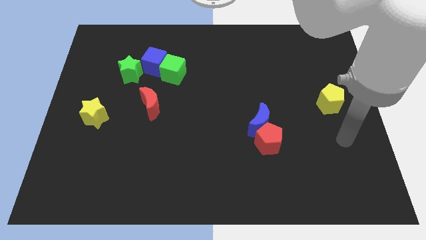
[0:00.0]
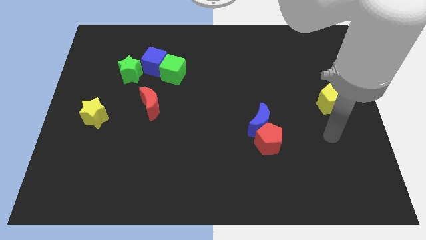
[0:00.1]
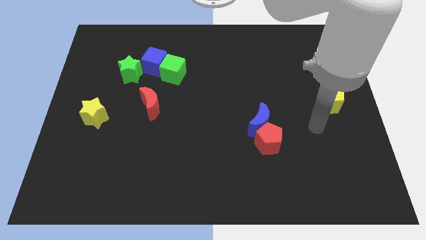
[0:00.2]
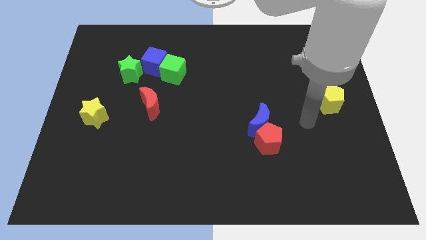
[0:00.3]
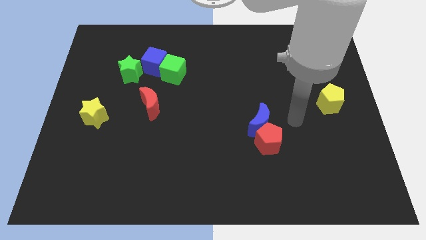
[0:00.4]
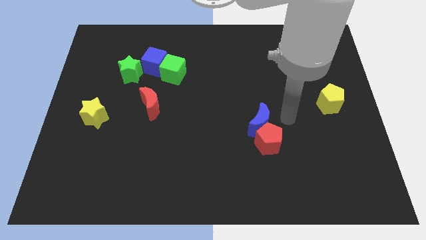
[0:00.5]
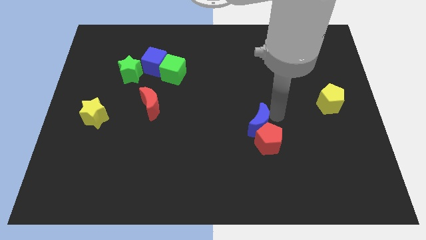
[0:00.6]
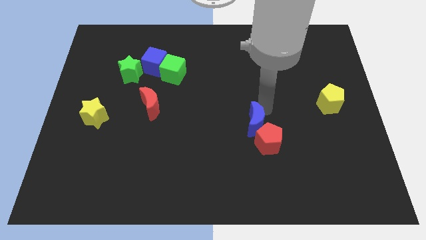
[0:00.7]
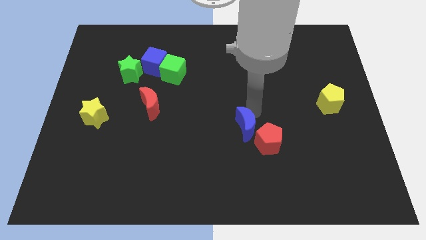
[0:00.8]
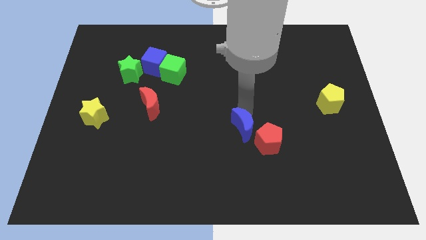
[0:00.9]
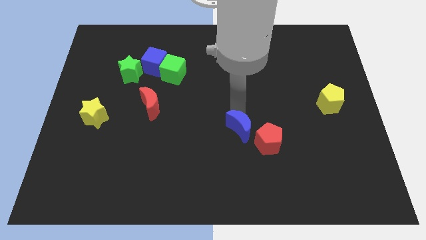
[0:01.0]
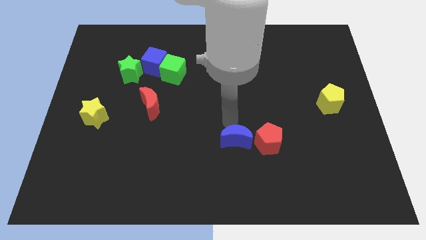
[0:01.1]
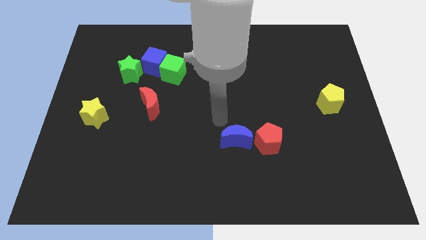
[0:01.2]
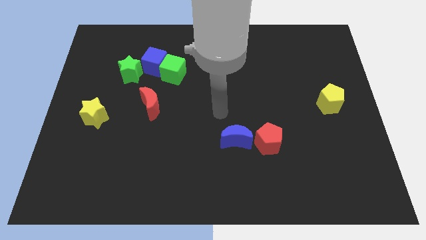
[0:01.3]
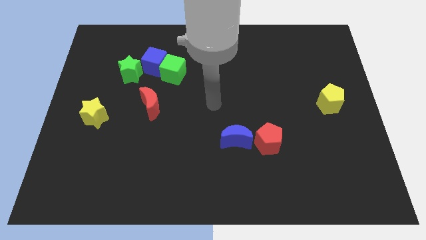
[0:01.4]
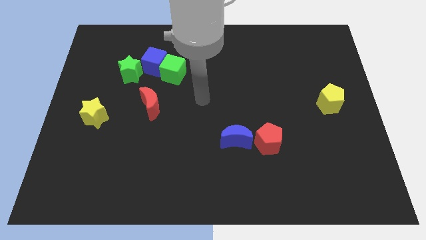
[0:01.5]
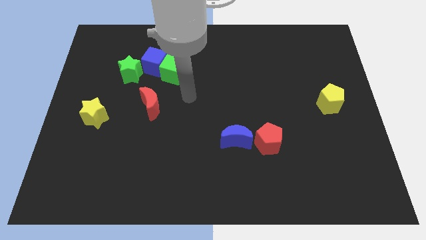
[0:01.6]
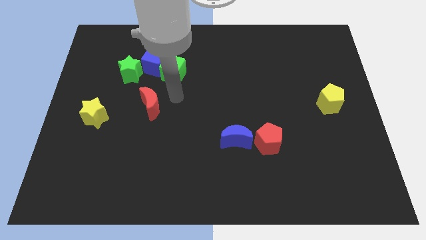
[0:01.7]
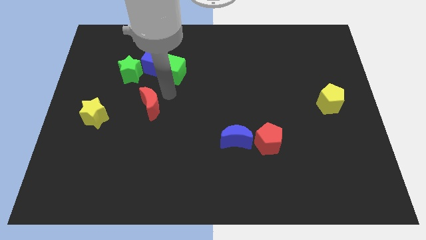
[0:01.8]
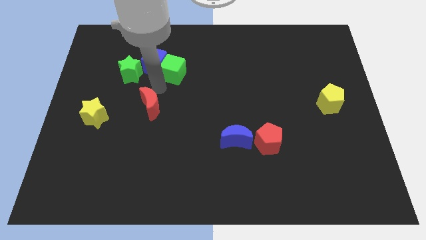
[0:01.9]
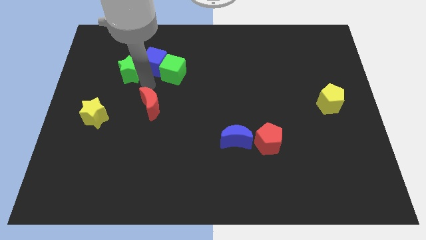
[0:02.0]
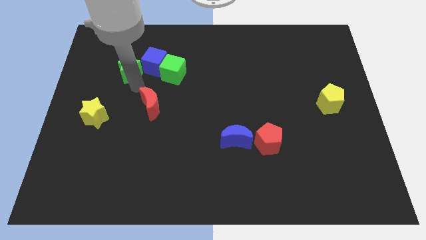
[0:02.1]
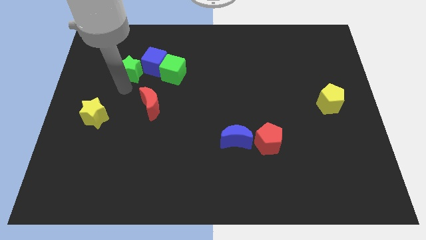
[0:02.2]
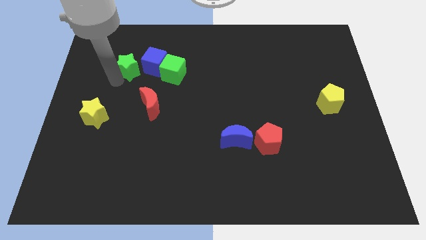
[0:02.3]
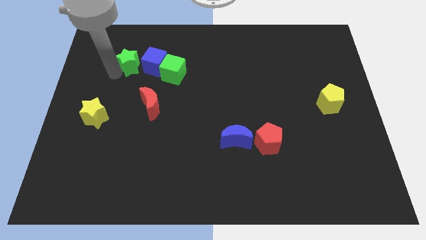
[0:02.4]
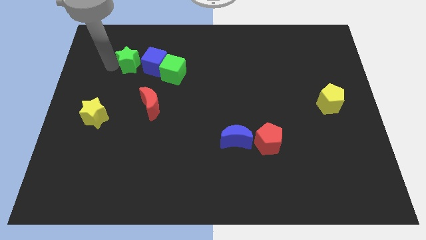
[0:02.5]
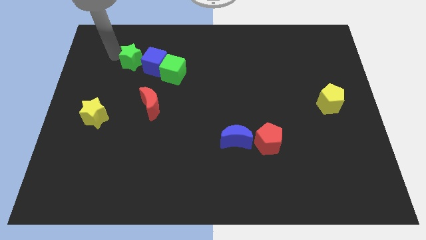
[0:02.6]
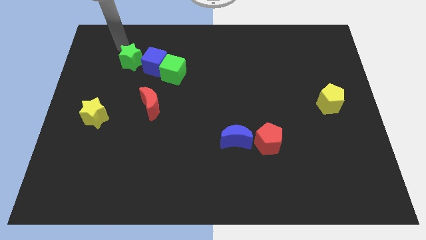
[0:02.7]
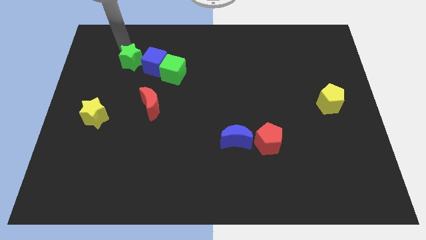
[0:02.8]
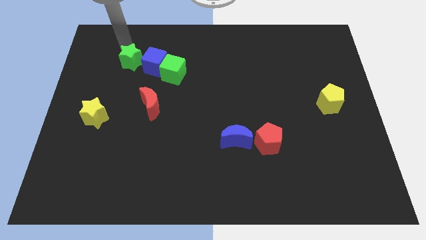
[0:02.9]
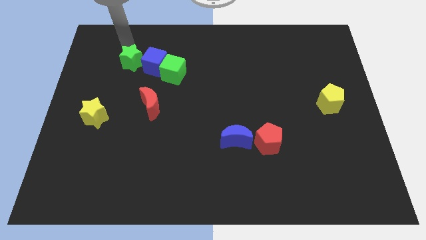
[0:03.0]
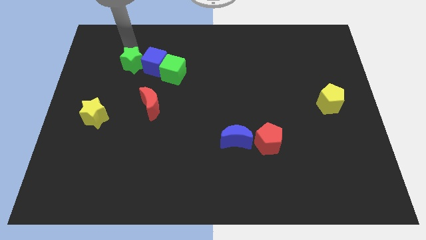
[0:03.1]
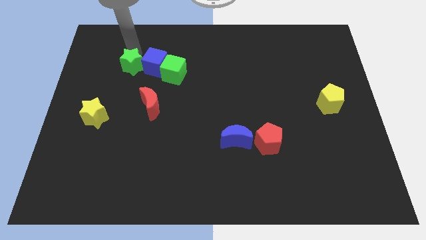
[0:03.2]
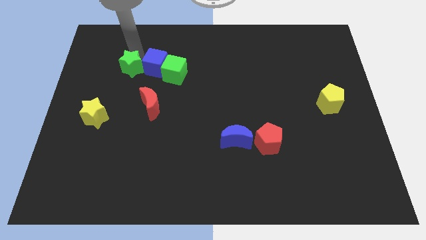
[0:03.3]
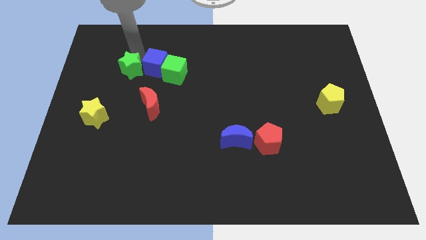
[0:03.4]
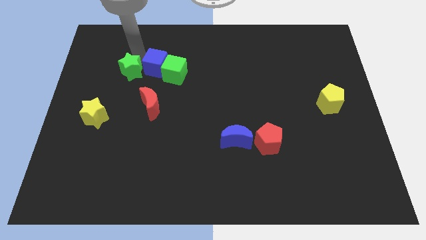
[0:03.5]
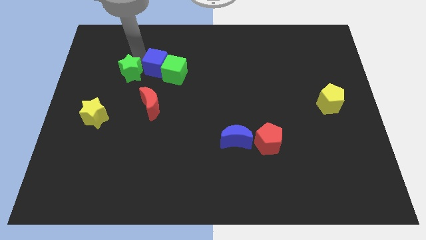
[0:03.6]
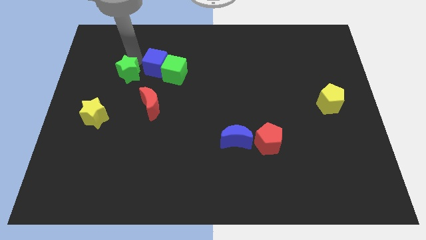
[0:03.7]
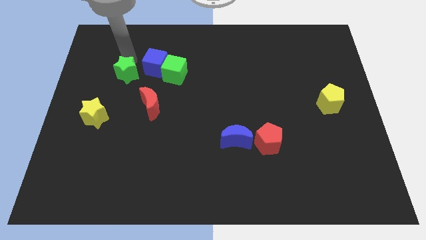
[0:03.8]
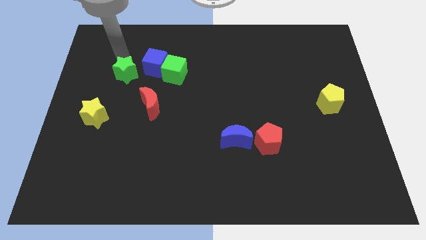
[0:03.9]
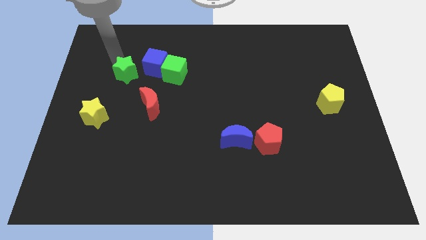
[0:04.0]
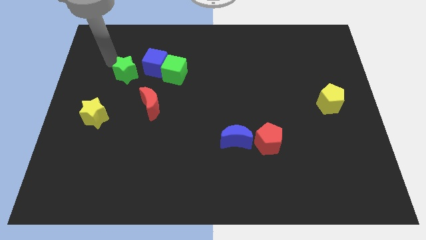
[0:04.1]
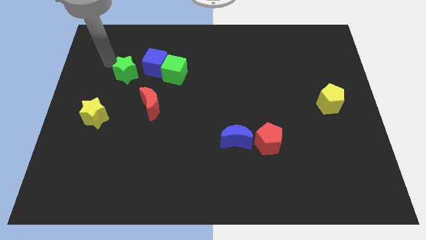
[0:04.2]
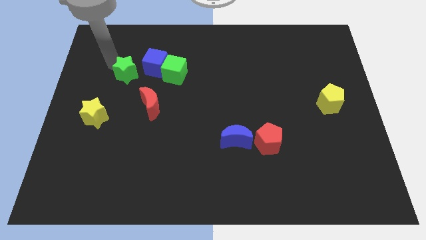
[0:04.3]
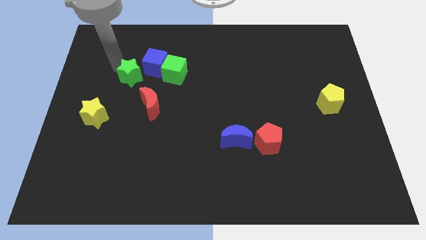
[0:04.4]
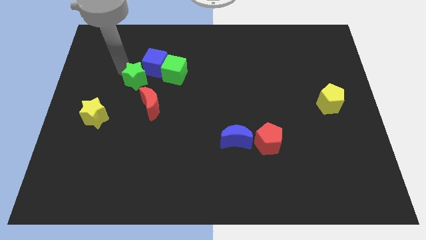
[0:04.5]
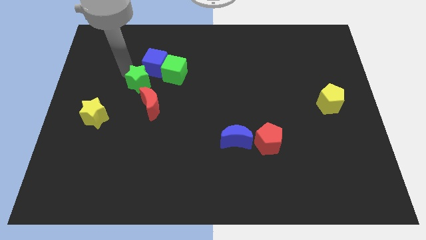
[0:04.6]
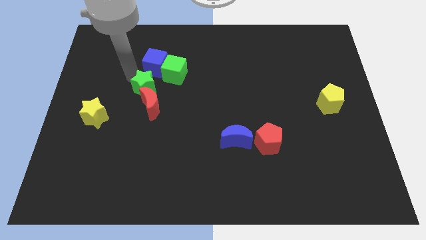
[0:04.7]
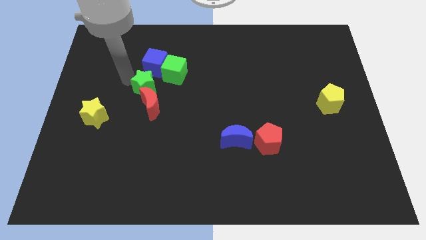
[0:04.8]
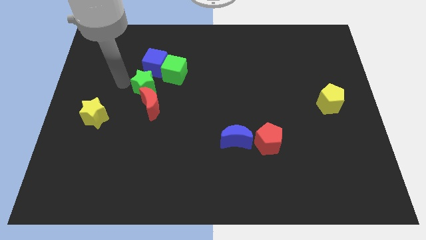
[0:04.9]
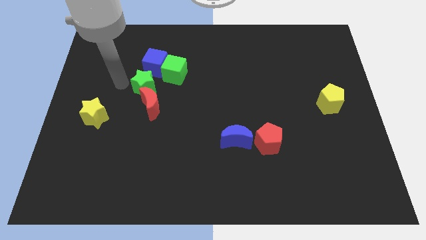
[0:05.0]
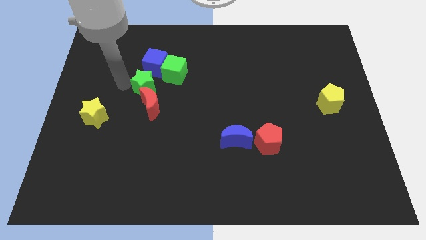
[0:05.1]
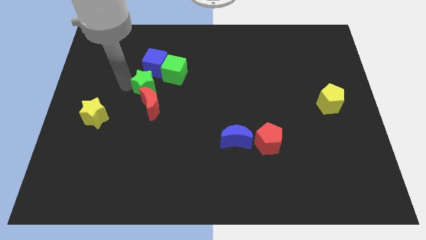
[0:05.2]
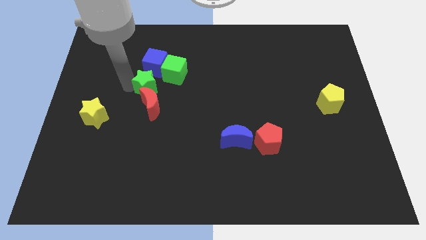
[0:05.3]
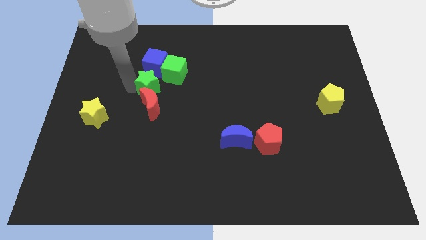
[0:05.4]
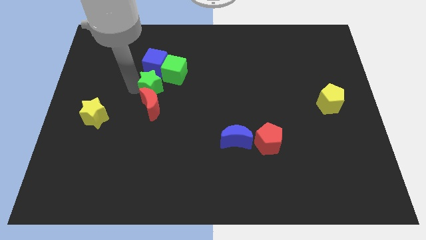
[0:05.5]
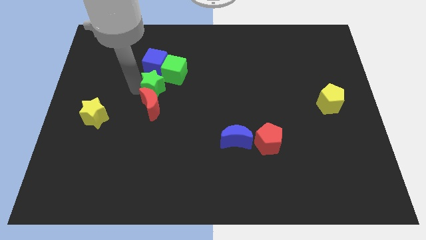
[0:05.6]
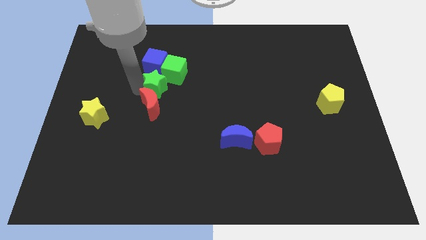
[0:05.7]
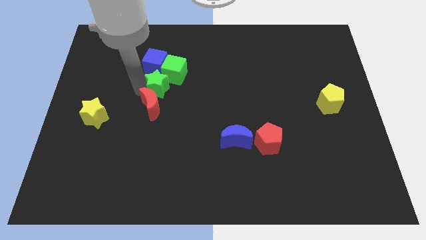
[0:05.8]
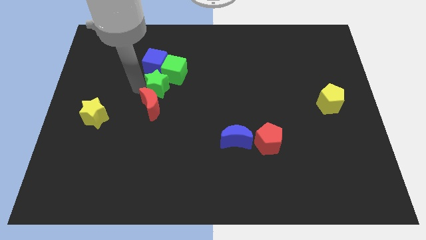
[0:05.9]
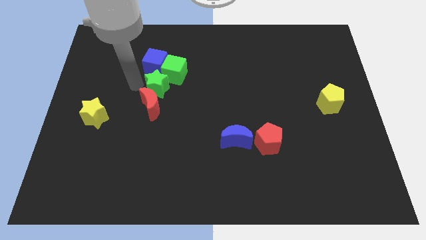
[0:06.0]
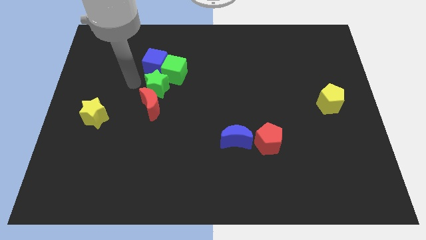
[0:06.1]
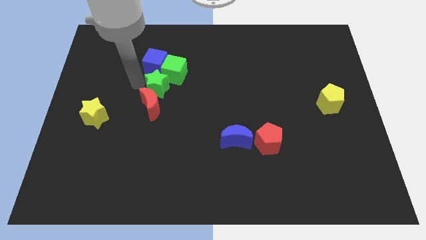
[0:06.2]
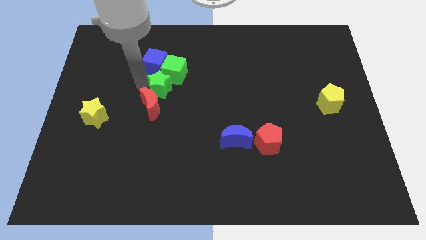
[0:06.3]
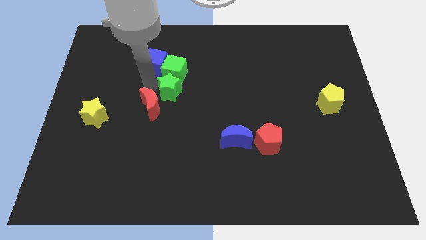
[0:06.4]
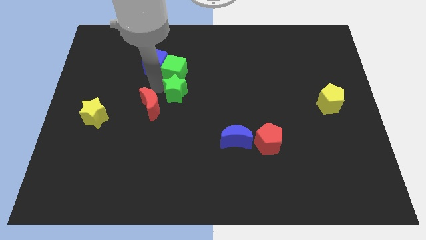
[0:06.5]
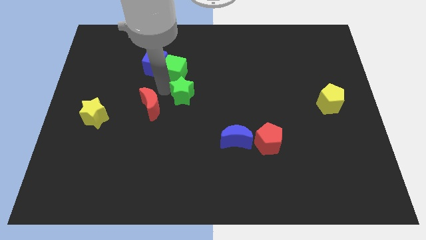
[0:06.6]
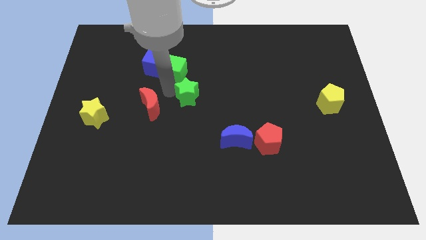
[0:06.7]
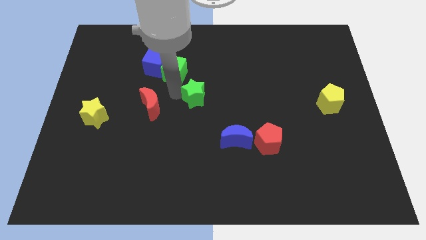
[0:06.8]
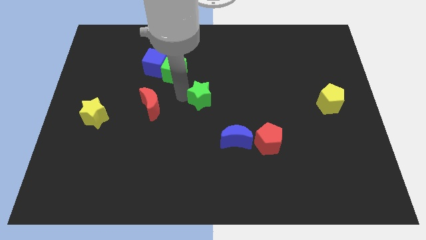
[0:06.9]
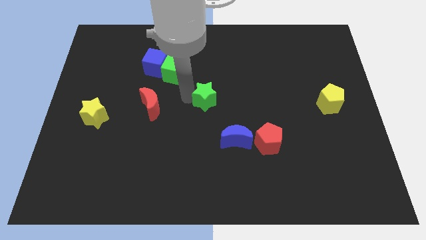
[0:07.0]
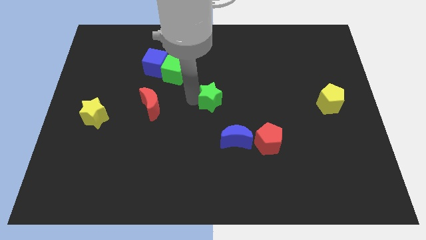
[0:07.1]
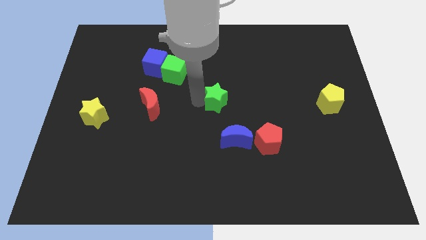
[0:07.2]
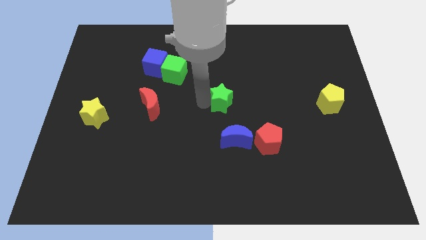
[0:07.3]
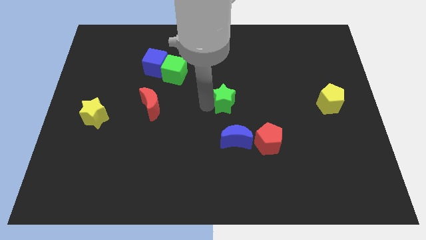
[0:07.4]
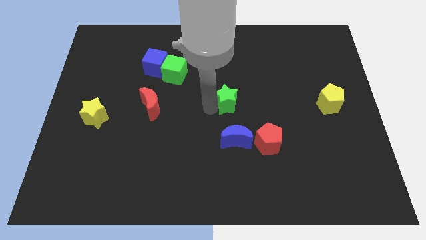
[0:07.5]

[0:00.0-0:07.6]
move the green star right

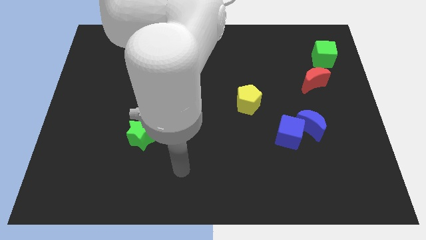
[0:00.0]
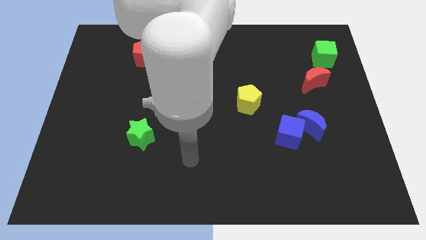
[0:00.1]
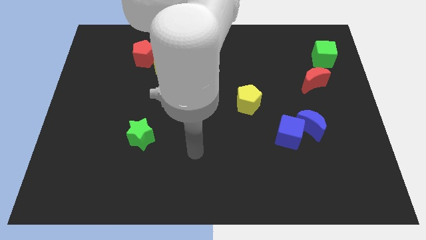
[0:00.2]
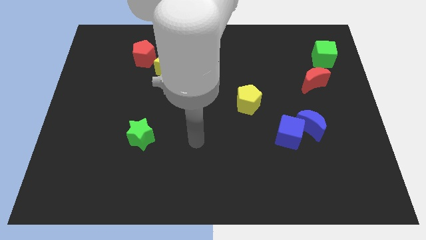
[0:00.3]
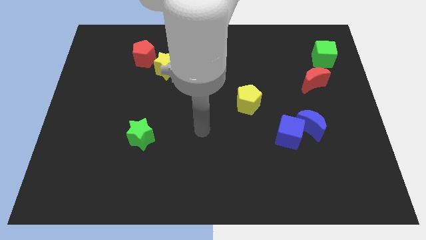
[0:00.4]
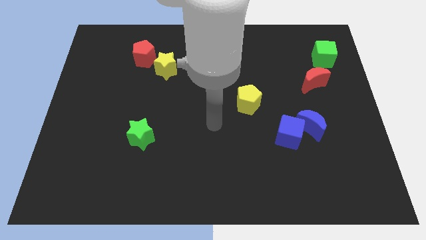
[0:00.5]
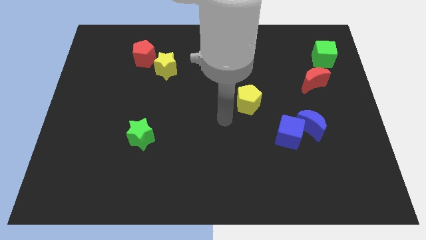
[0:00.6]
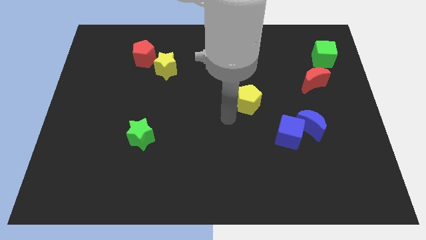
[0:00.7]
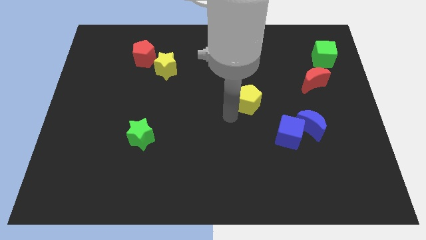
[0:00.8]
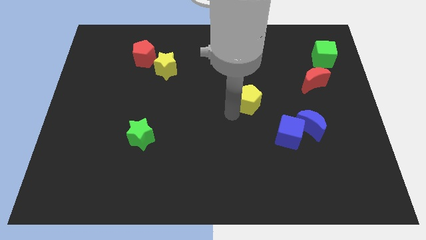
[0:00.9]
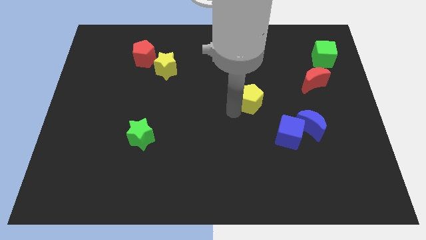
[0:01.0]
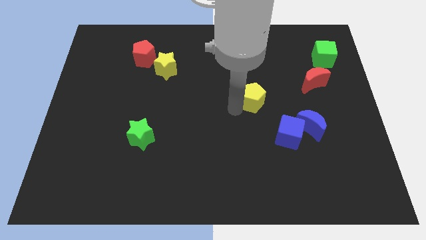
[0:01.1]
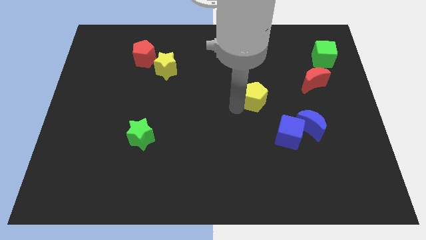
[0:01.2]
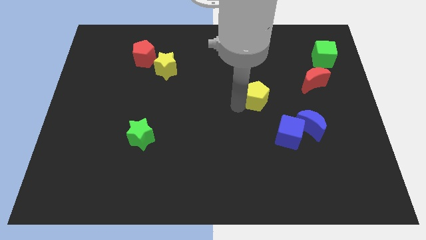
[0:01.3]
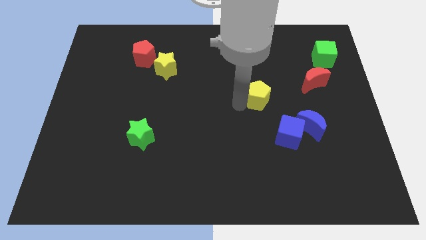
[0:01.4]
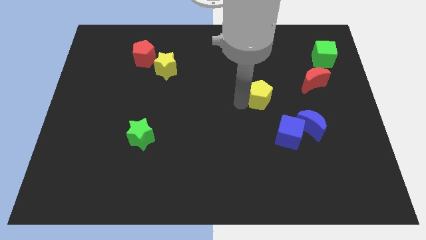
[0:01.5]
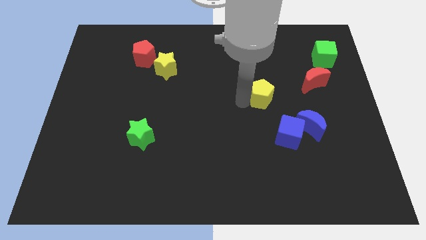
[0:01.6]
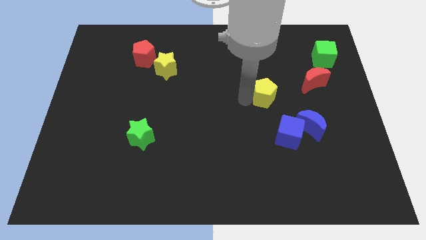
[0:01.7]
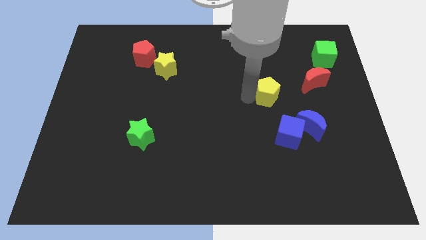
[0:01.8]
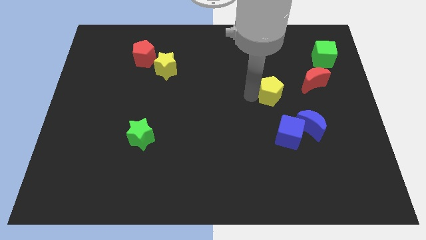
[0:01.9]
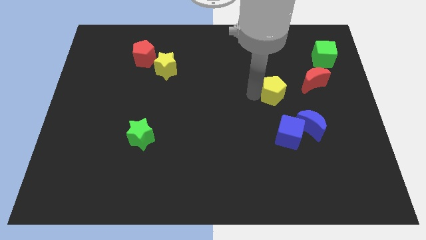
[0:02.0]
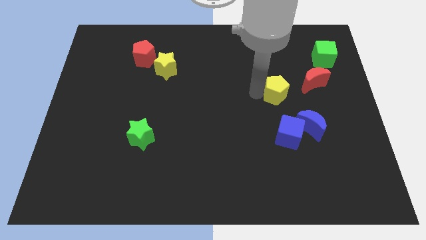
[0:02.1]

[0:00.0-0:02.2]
move the yellow pentagon upwards and to the right somewhat
